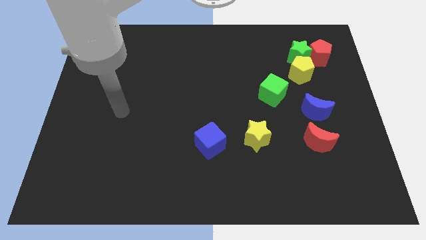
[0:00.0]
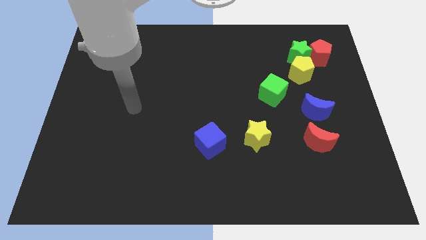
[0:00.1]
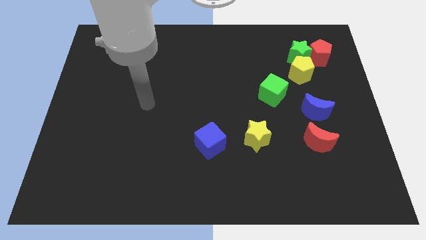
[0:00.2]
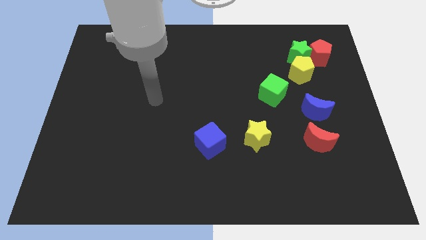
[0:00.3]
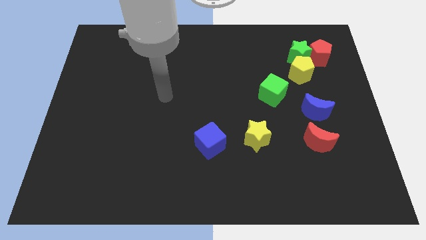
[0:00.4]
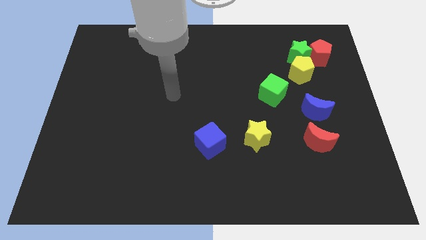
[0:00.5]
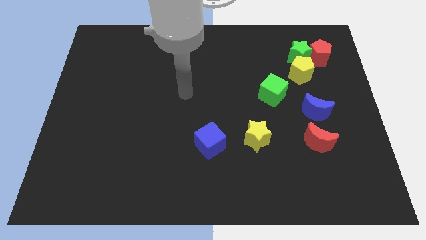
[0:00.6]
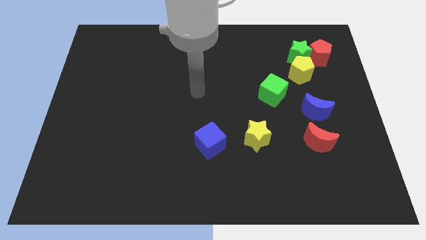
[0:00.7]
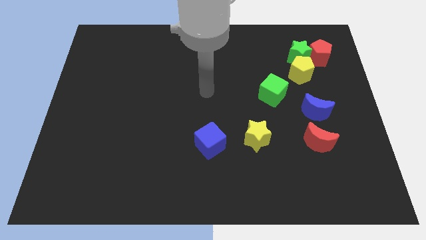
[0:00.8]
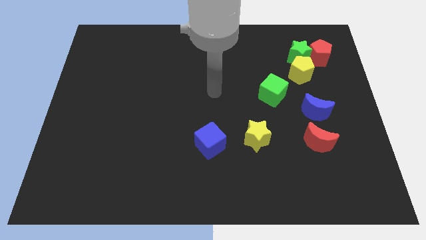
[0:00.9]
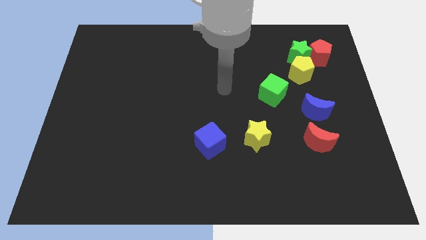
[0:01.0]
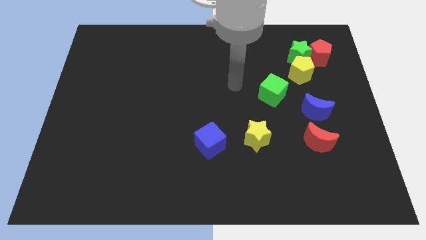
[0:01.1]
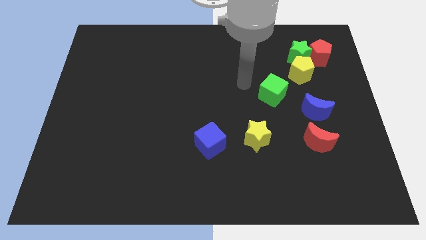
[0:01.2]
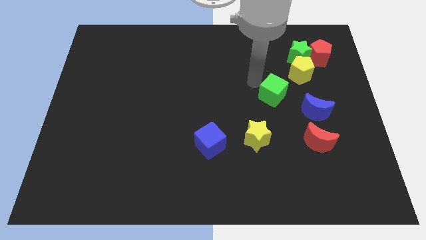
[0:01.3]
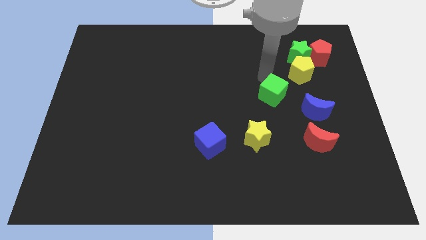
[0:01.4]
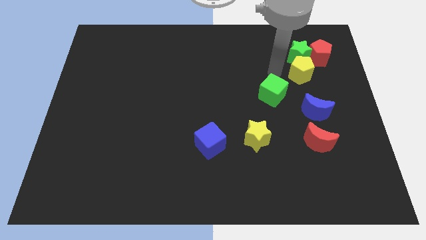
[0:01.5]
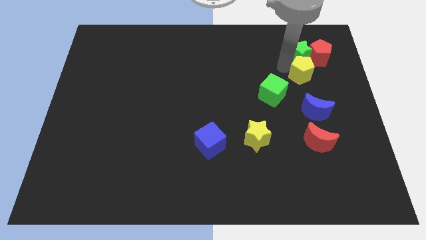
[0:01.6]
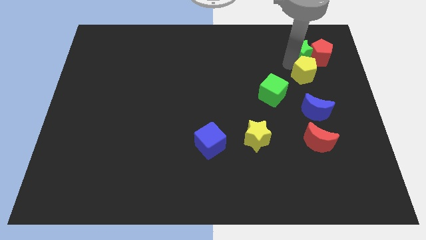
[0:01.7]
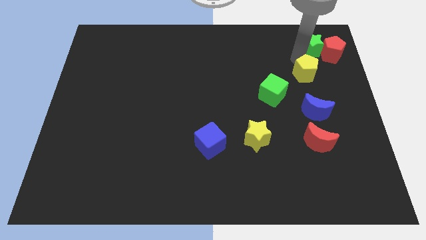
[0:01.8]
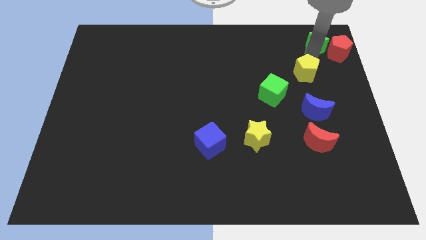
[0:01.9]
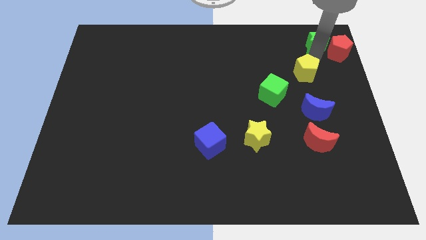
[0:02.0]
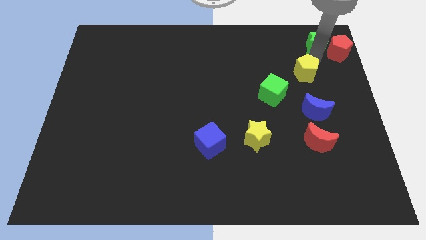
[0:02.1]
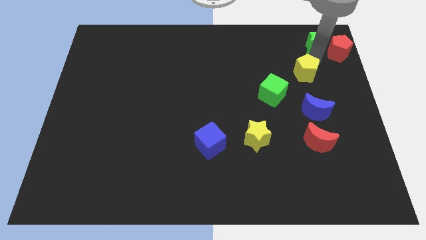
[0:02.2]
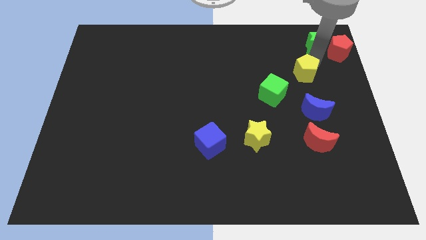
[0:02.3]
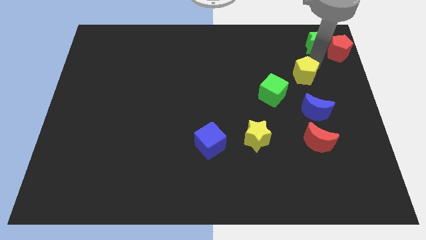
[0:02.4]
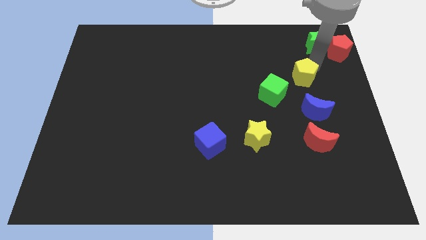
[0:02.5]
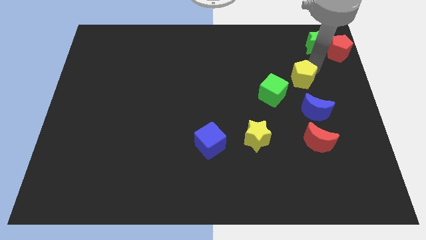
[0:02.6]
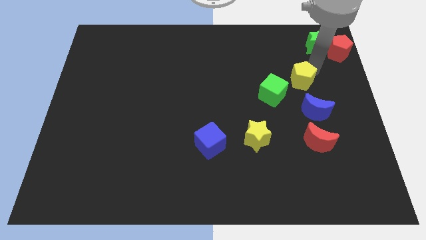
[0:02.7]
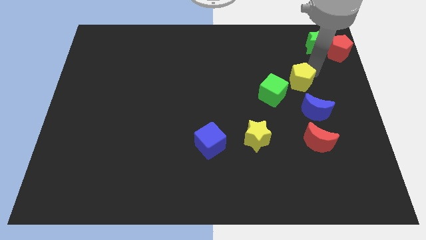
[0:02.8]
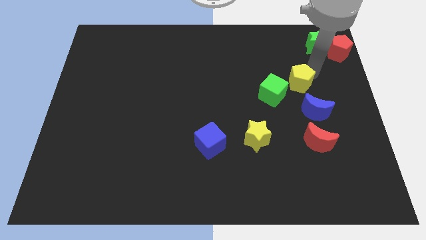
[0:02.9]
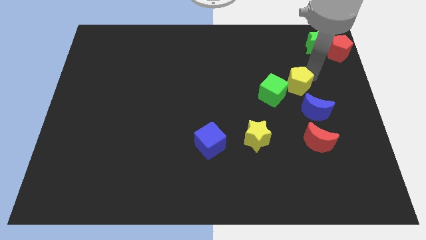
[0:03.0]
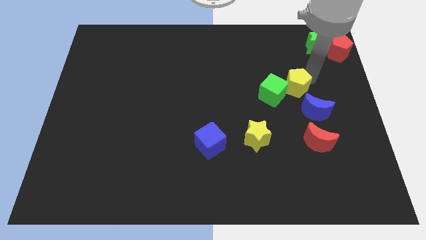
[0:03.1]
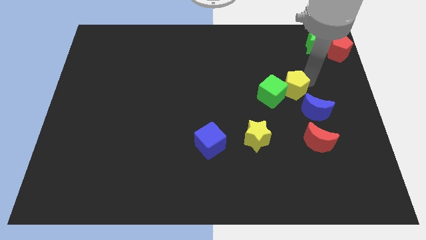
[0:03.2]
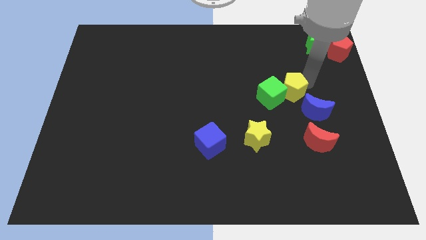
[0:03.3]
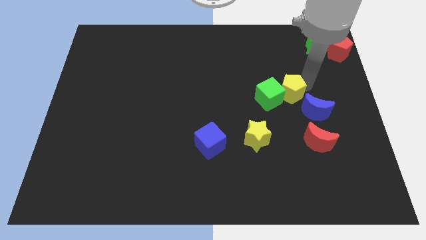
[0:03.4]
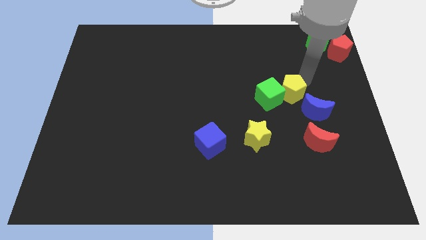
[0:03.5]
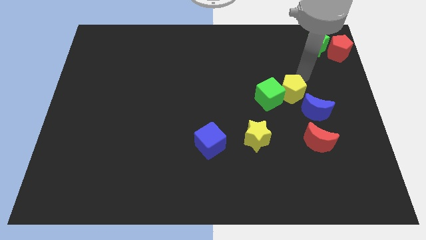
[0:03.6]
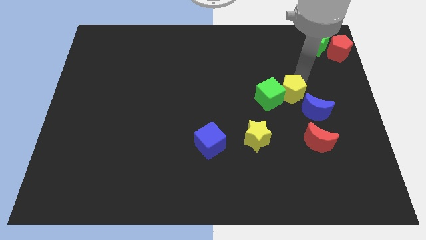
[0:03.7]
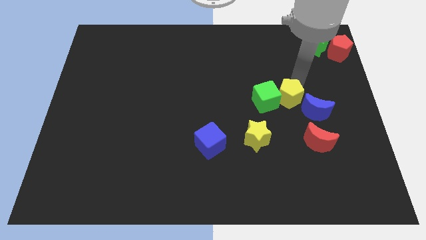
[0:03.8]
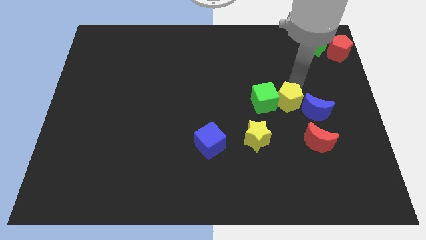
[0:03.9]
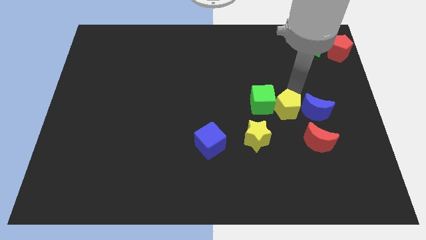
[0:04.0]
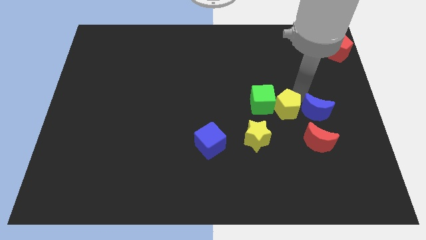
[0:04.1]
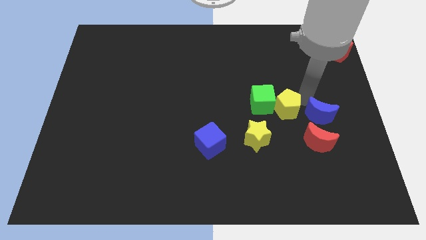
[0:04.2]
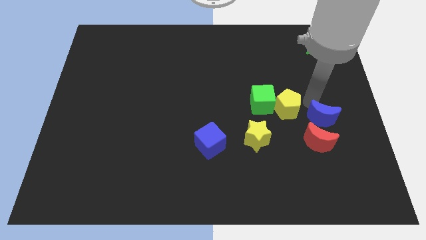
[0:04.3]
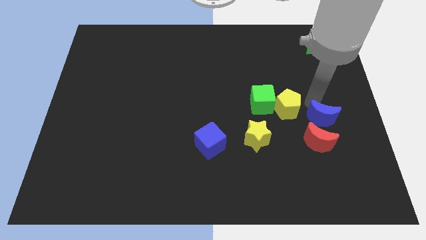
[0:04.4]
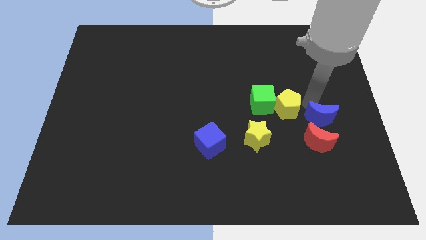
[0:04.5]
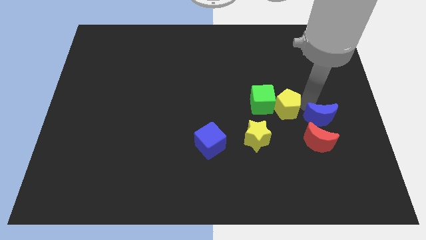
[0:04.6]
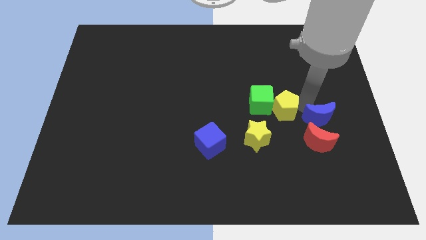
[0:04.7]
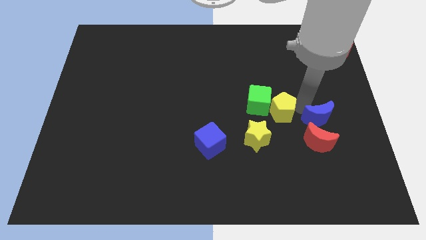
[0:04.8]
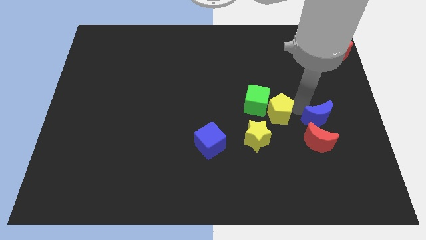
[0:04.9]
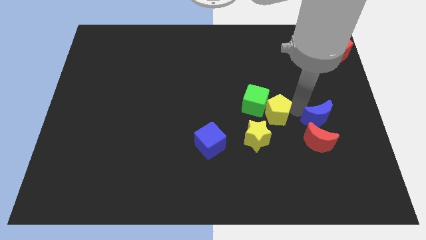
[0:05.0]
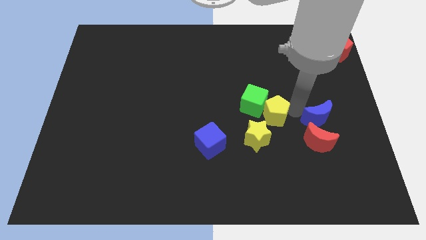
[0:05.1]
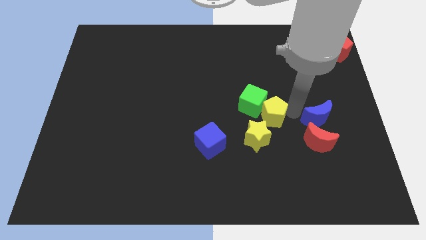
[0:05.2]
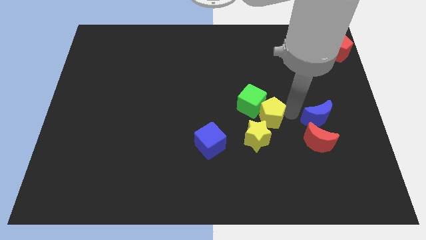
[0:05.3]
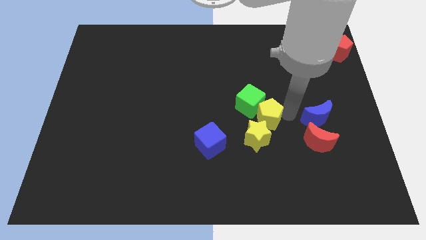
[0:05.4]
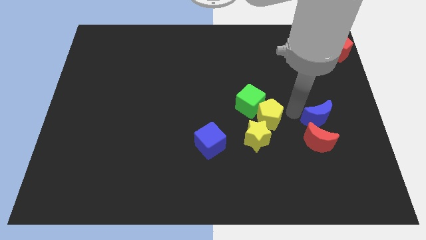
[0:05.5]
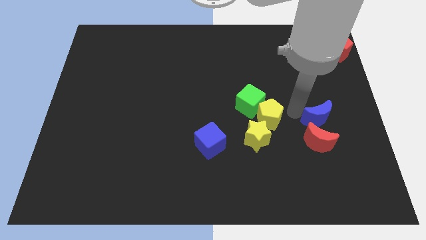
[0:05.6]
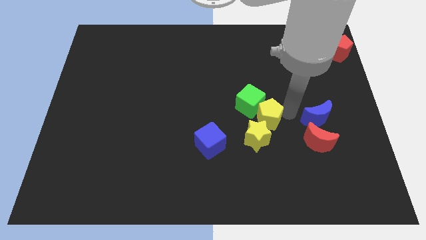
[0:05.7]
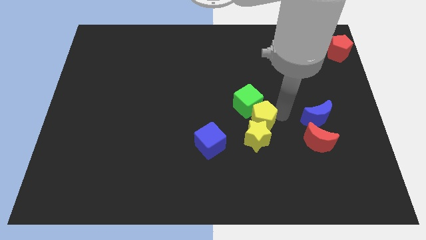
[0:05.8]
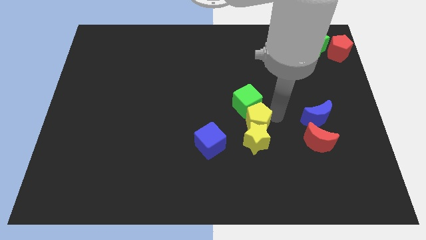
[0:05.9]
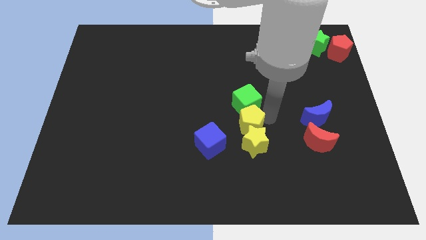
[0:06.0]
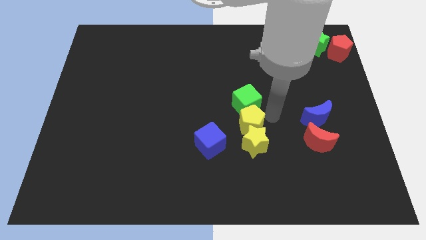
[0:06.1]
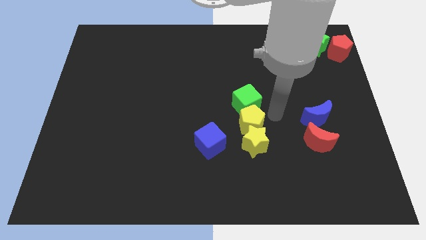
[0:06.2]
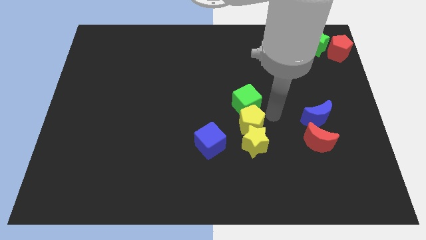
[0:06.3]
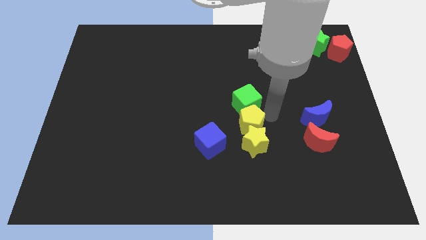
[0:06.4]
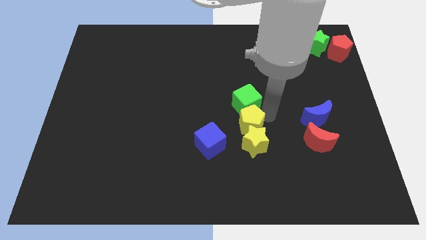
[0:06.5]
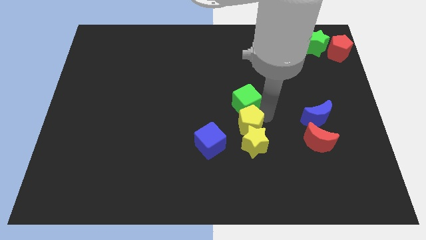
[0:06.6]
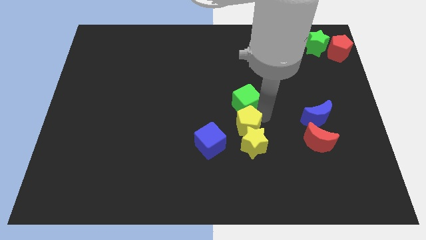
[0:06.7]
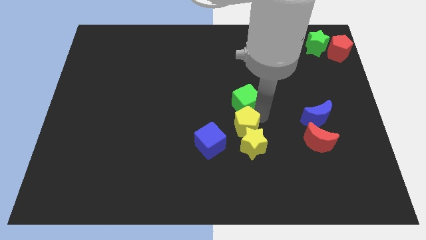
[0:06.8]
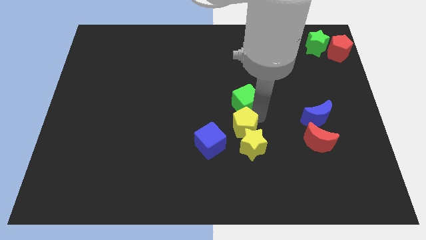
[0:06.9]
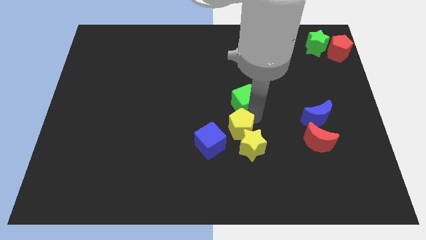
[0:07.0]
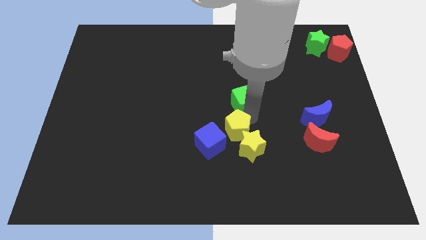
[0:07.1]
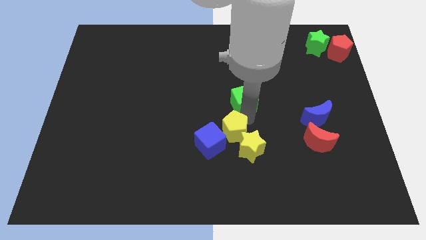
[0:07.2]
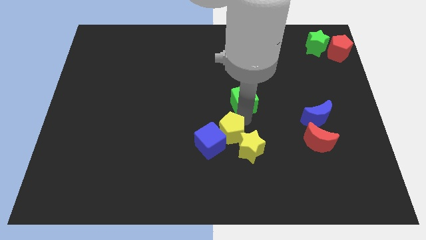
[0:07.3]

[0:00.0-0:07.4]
push the yellow pentagon close to the blue cube

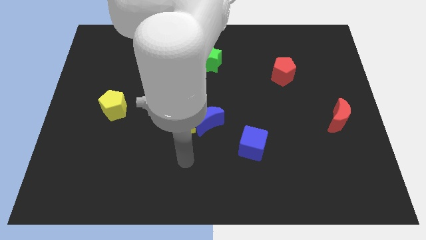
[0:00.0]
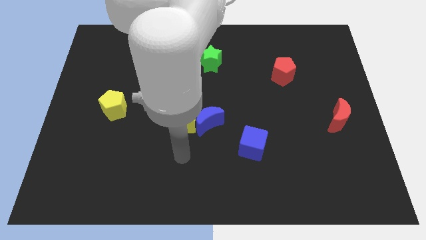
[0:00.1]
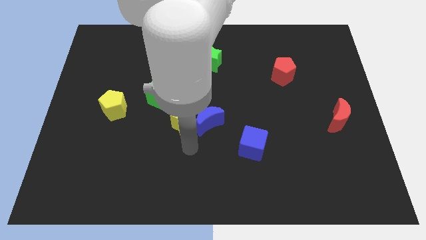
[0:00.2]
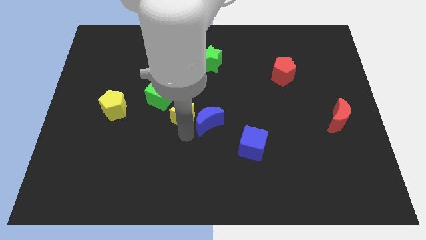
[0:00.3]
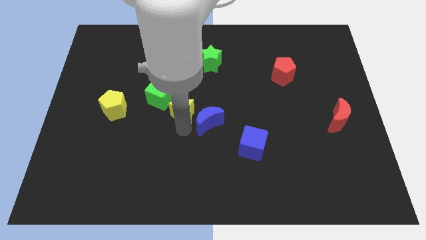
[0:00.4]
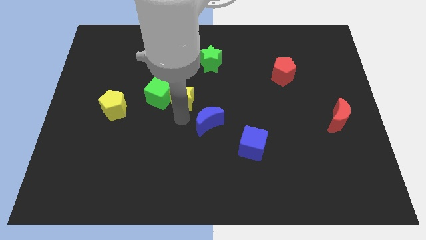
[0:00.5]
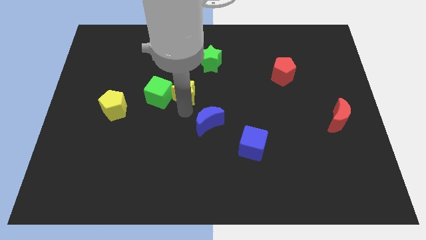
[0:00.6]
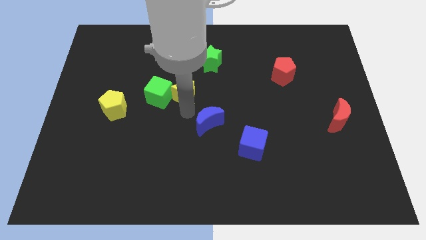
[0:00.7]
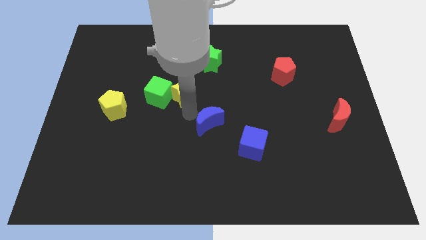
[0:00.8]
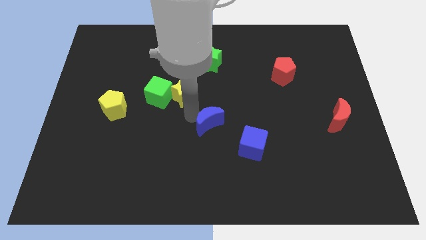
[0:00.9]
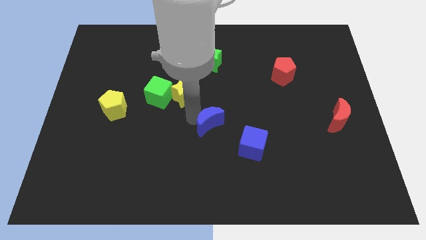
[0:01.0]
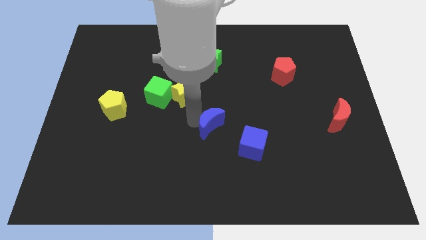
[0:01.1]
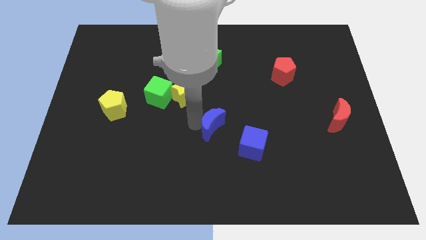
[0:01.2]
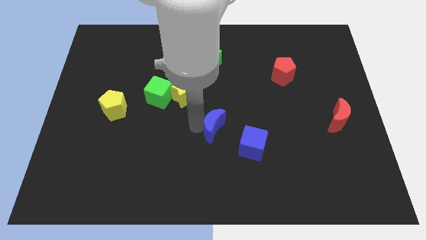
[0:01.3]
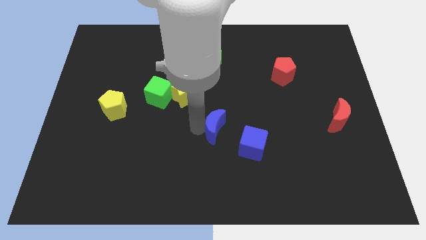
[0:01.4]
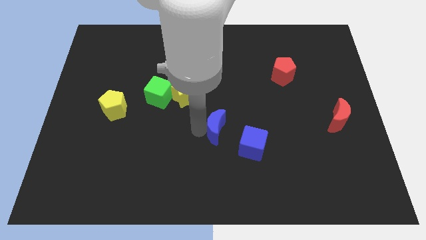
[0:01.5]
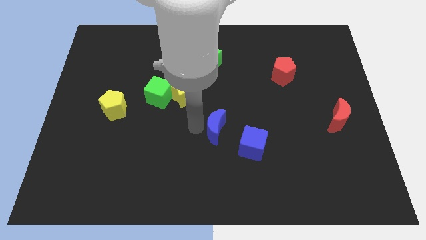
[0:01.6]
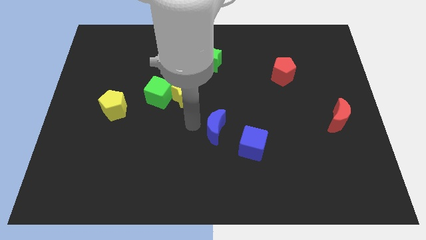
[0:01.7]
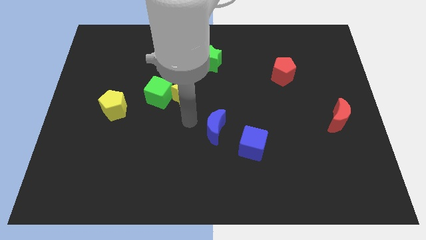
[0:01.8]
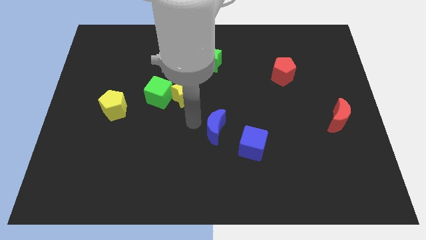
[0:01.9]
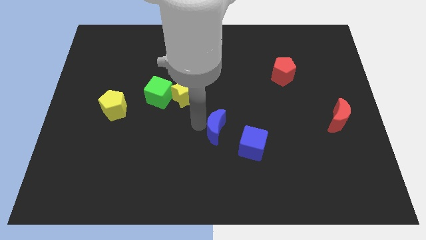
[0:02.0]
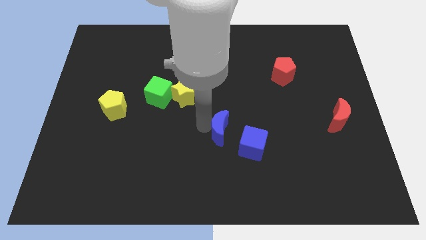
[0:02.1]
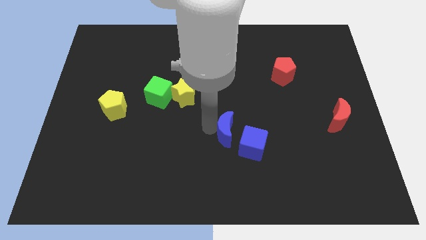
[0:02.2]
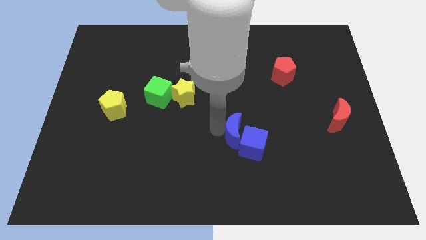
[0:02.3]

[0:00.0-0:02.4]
put the blue moon to the blue cube
